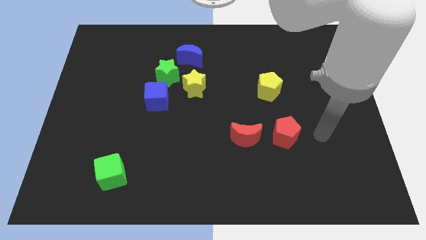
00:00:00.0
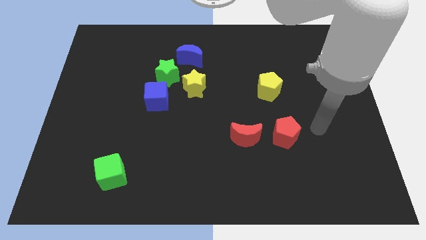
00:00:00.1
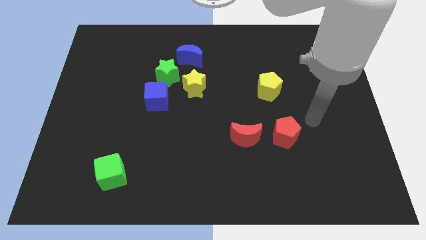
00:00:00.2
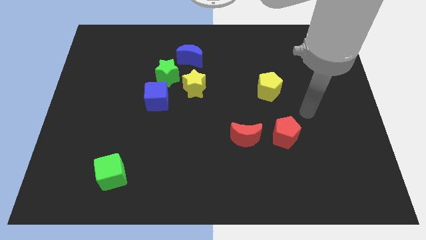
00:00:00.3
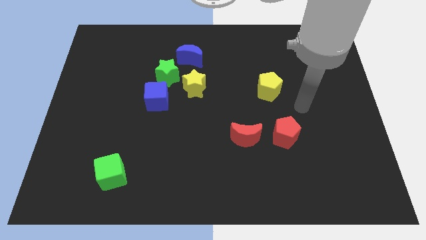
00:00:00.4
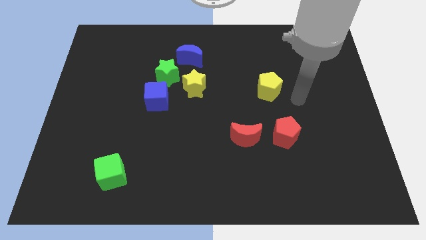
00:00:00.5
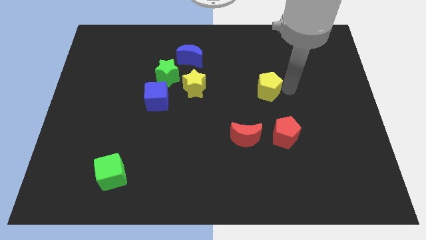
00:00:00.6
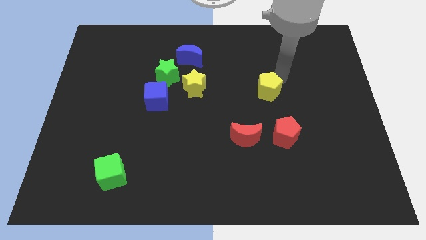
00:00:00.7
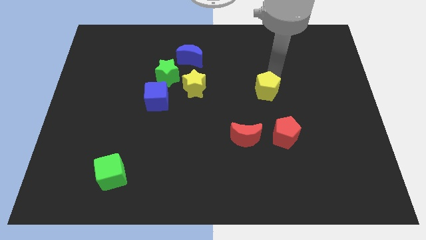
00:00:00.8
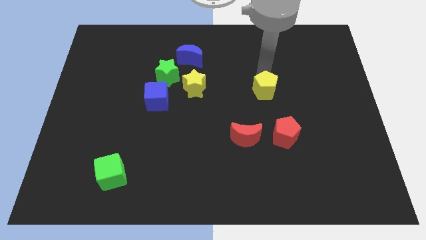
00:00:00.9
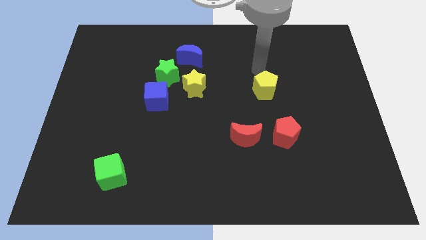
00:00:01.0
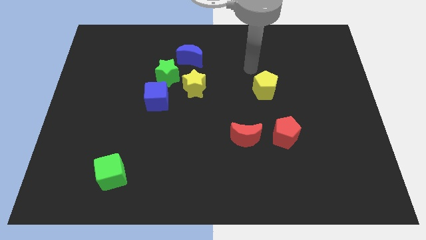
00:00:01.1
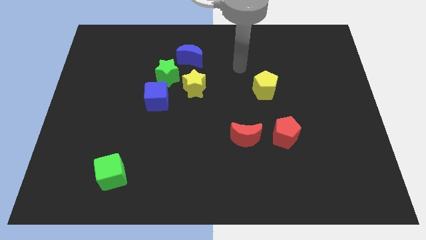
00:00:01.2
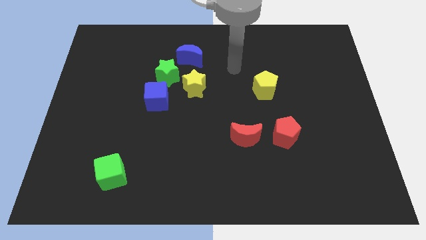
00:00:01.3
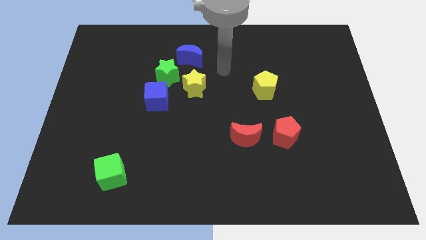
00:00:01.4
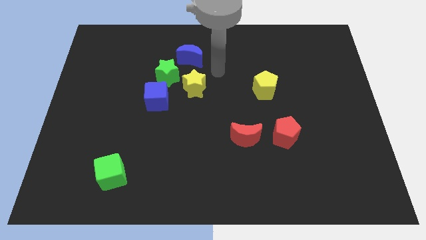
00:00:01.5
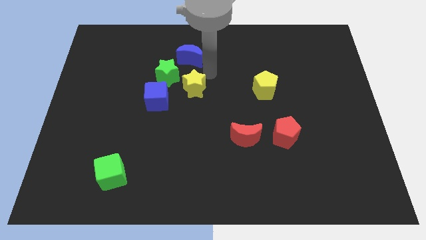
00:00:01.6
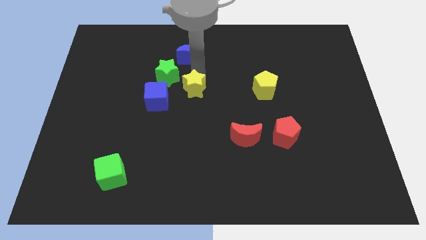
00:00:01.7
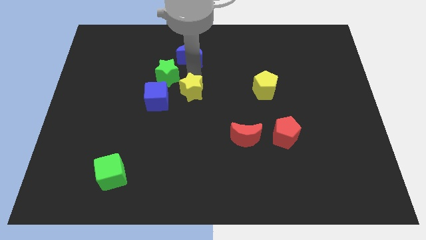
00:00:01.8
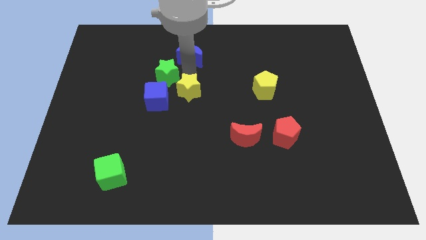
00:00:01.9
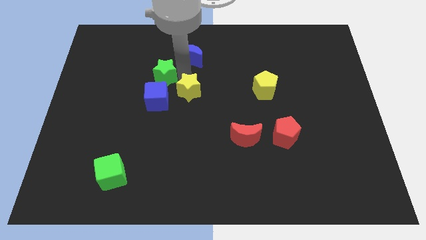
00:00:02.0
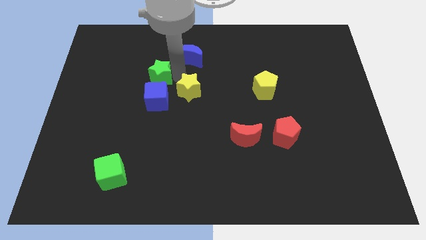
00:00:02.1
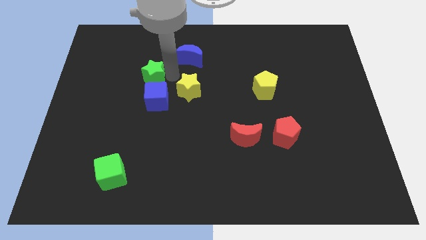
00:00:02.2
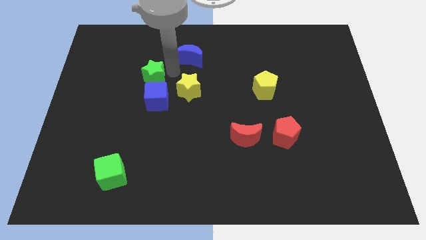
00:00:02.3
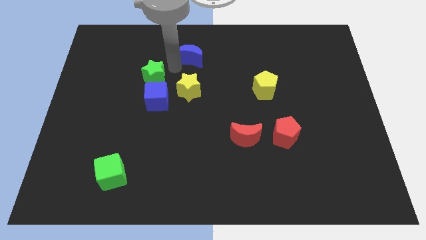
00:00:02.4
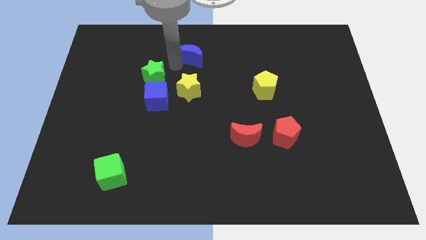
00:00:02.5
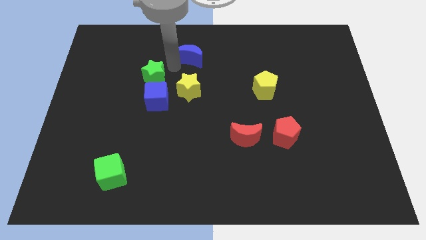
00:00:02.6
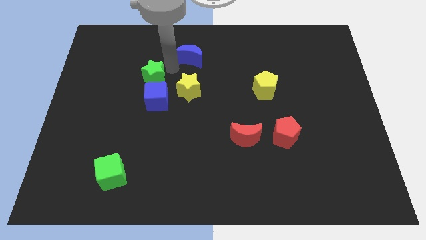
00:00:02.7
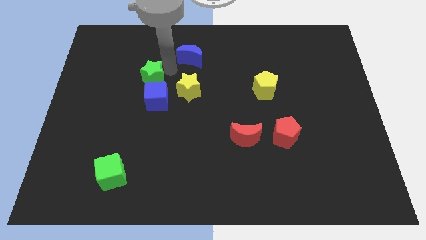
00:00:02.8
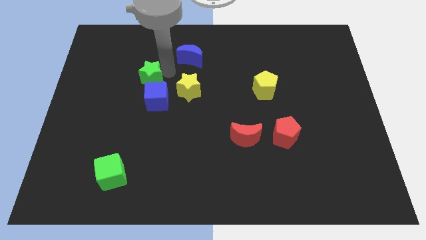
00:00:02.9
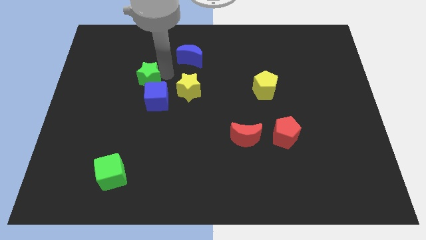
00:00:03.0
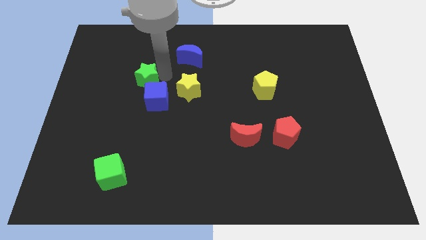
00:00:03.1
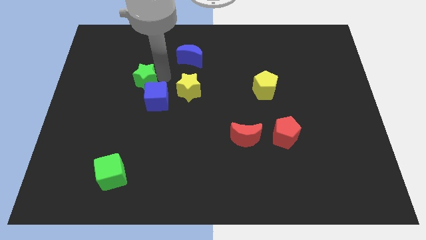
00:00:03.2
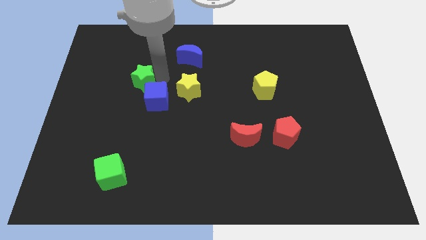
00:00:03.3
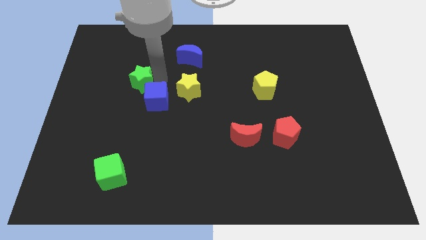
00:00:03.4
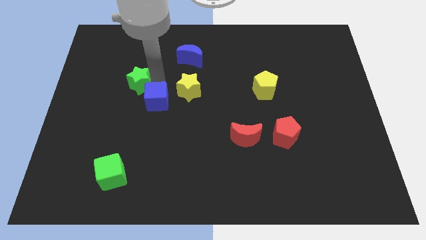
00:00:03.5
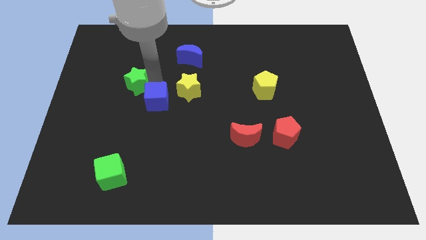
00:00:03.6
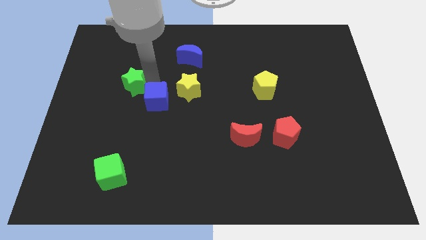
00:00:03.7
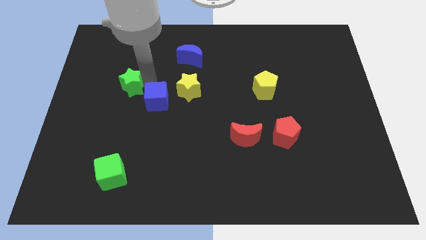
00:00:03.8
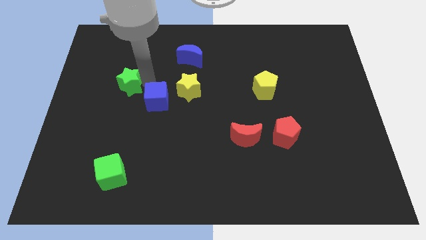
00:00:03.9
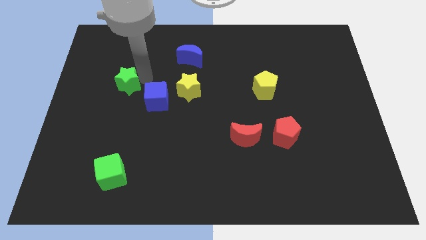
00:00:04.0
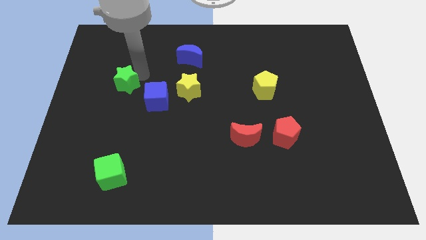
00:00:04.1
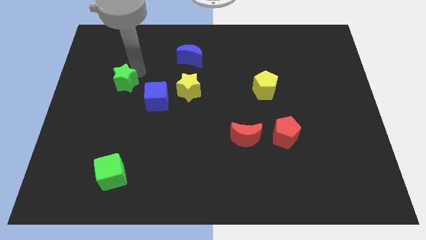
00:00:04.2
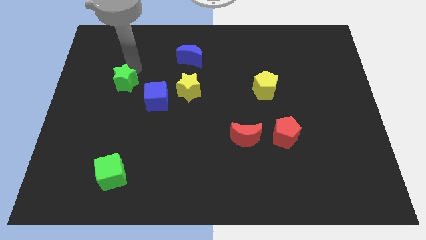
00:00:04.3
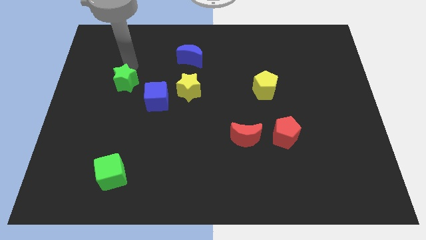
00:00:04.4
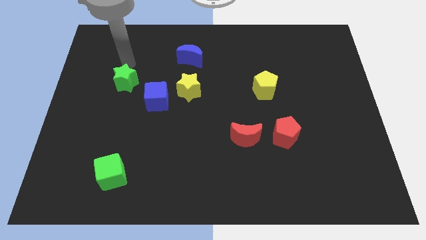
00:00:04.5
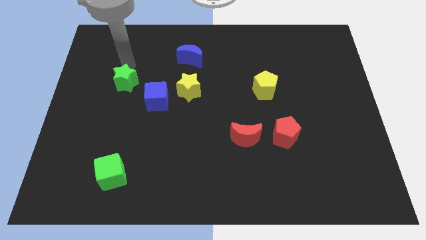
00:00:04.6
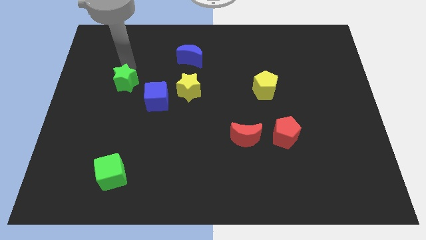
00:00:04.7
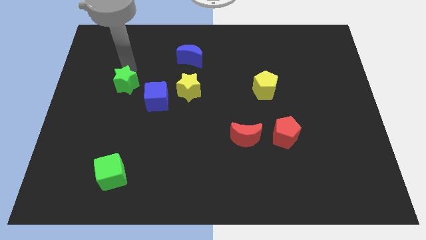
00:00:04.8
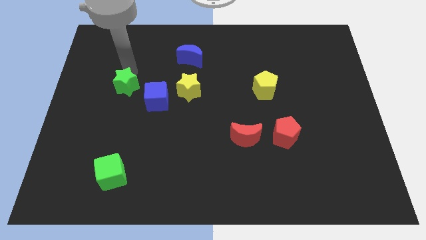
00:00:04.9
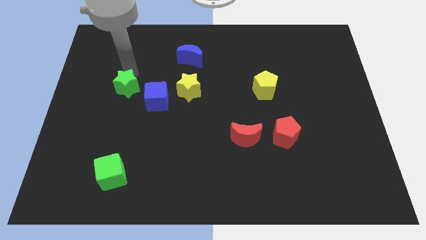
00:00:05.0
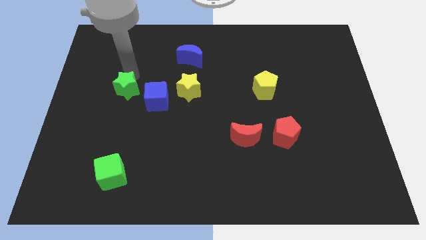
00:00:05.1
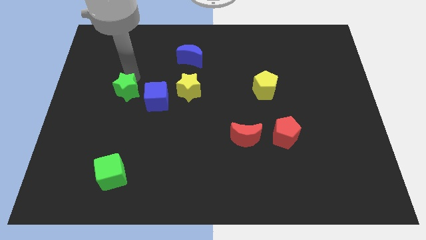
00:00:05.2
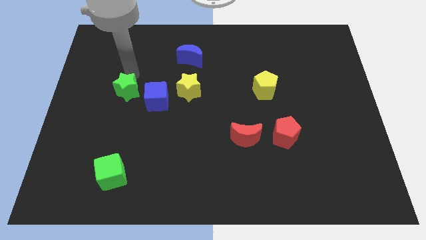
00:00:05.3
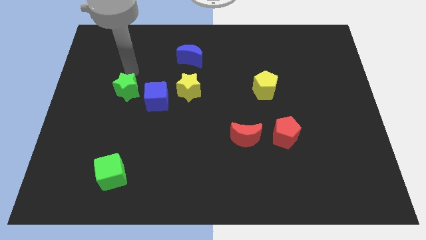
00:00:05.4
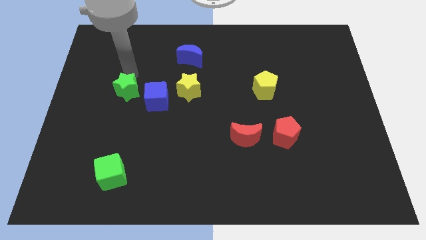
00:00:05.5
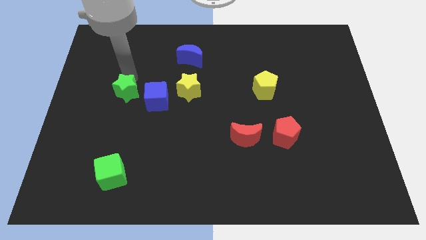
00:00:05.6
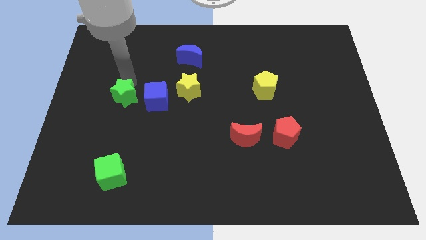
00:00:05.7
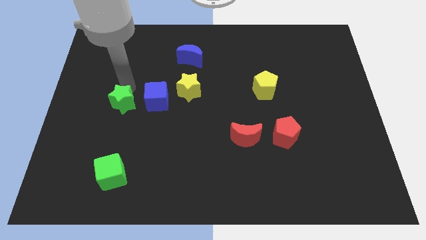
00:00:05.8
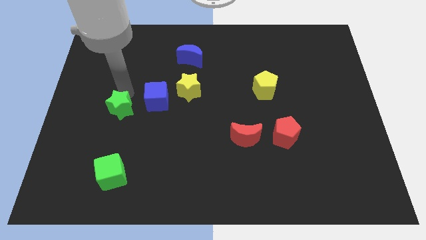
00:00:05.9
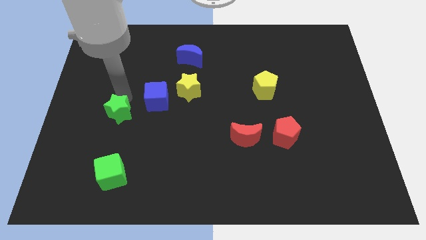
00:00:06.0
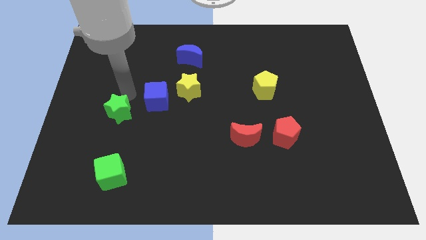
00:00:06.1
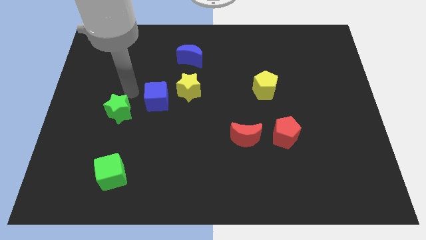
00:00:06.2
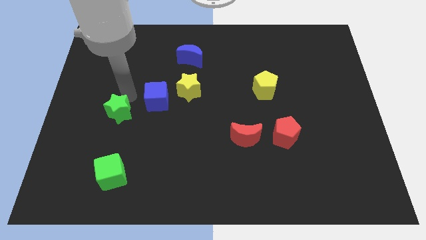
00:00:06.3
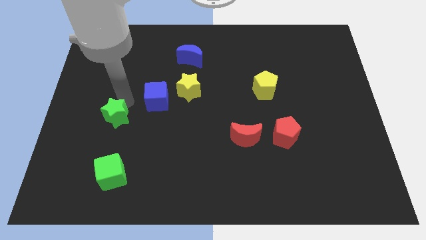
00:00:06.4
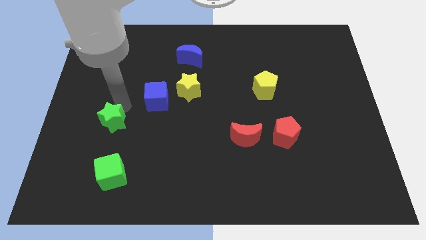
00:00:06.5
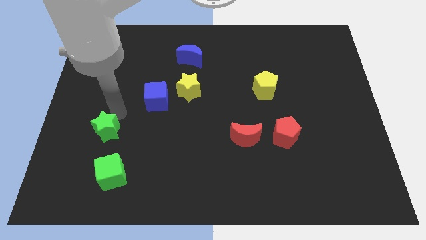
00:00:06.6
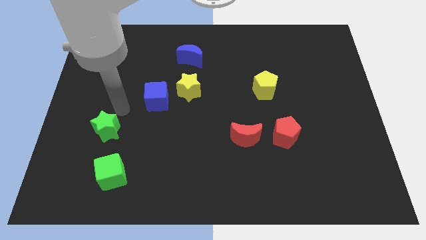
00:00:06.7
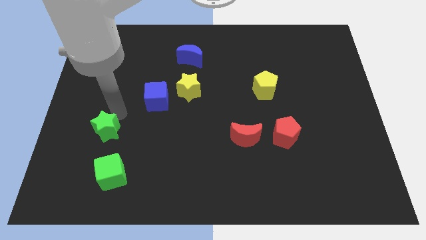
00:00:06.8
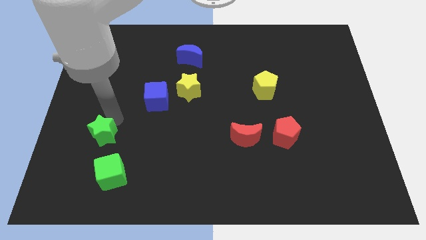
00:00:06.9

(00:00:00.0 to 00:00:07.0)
put the green star diagonally up and to the left of the green cube

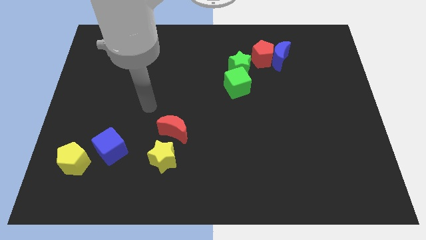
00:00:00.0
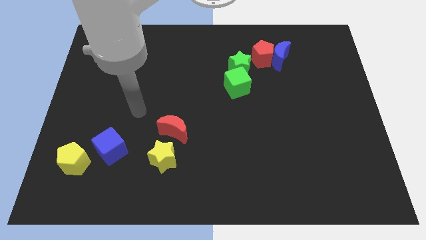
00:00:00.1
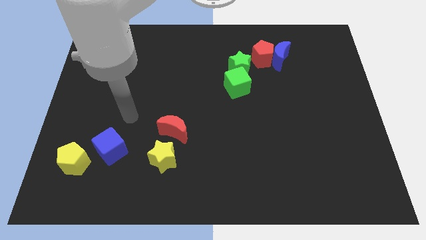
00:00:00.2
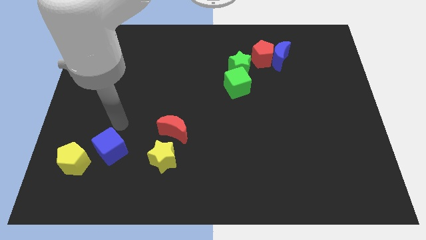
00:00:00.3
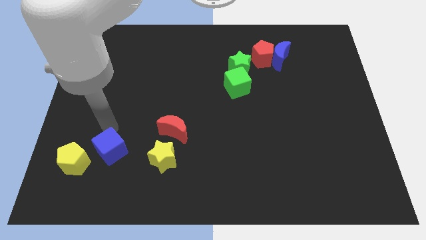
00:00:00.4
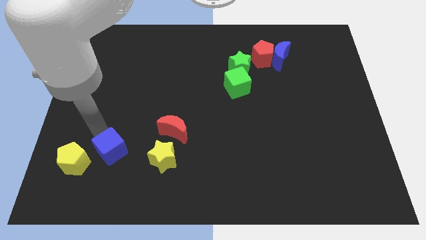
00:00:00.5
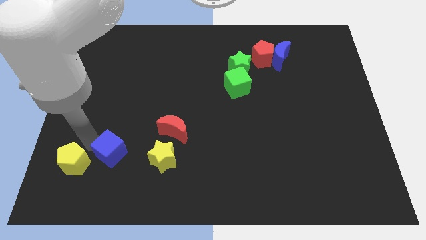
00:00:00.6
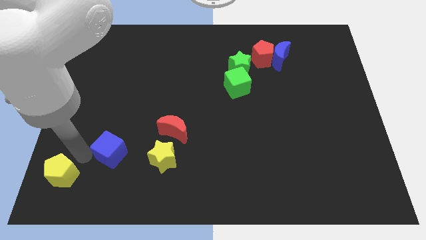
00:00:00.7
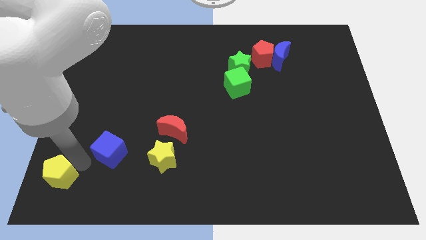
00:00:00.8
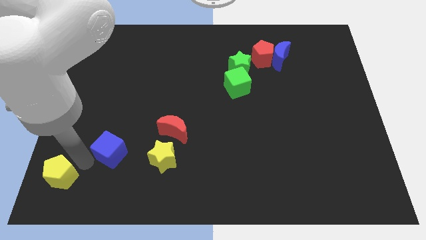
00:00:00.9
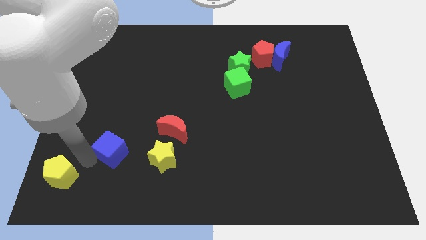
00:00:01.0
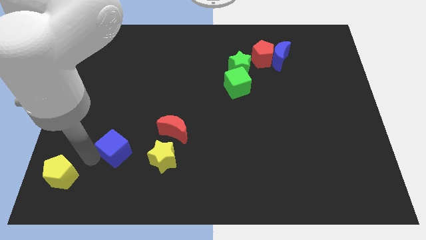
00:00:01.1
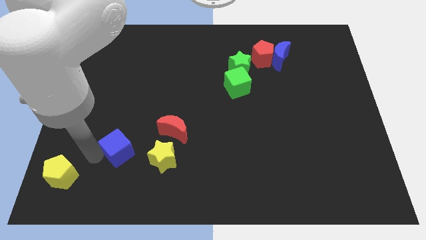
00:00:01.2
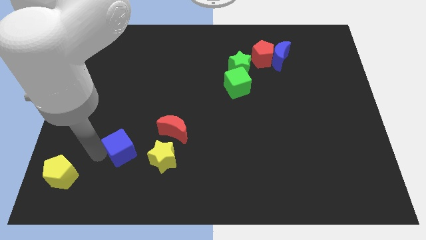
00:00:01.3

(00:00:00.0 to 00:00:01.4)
put the blue cube to the top left side of the yellow star
